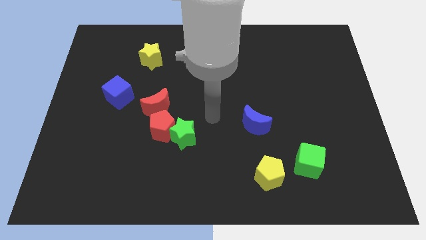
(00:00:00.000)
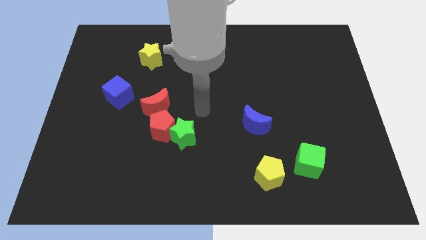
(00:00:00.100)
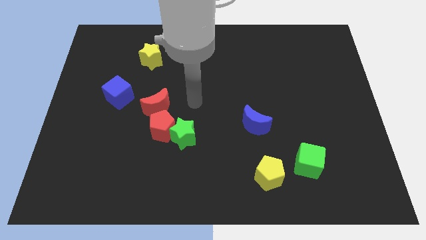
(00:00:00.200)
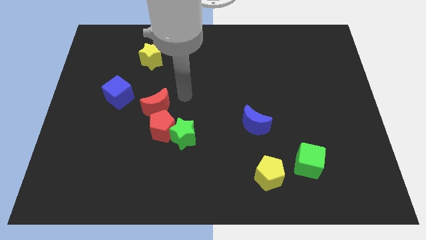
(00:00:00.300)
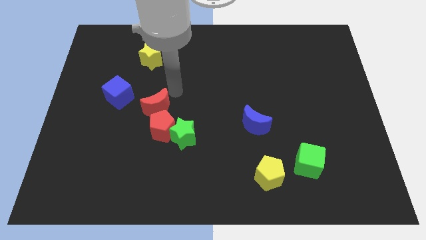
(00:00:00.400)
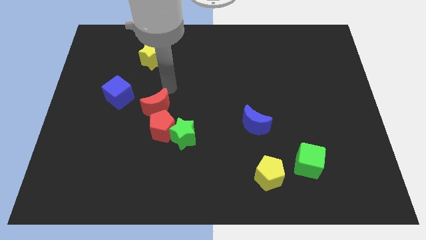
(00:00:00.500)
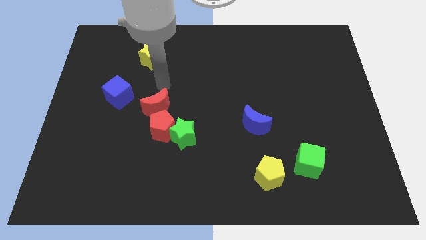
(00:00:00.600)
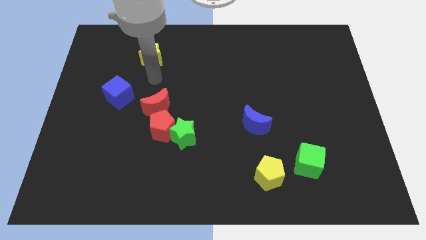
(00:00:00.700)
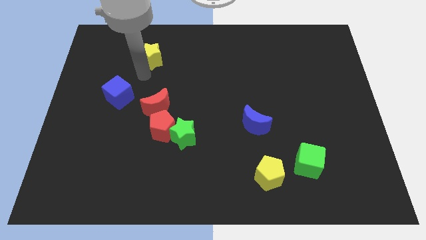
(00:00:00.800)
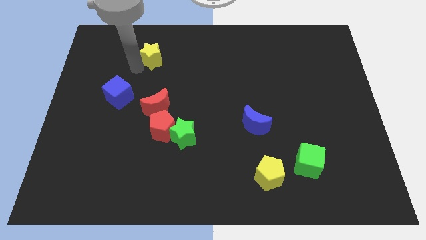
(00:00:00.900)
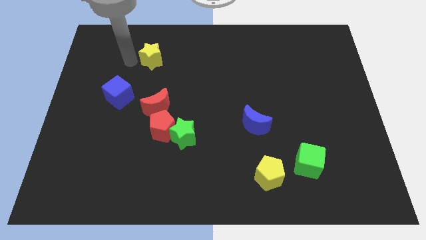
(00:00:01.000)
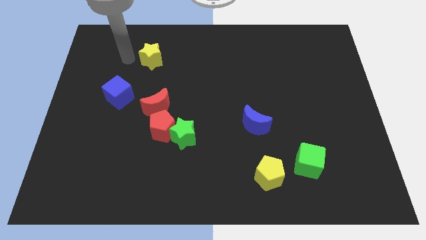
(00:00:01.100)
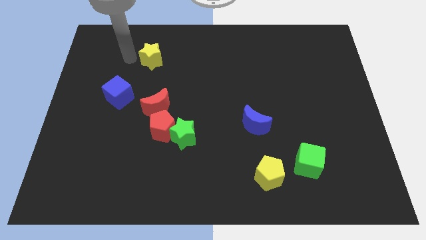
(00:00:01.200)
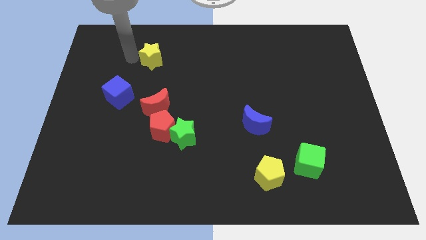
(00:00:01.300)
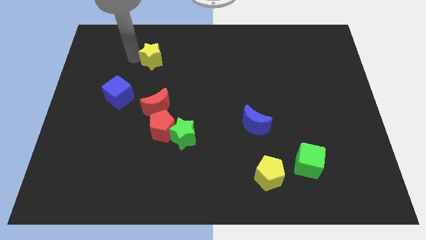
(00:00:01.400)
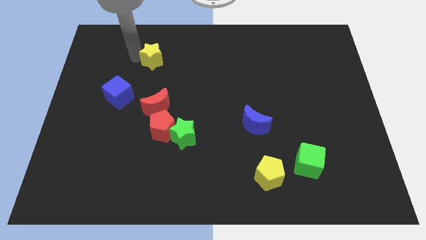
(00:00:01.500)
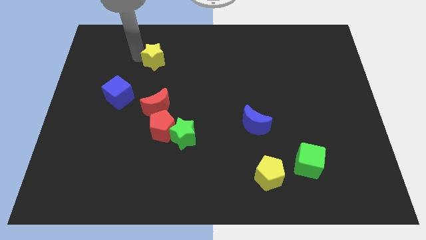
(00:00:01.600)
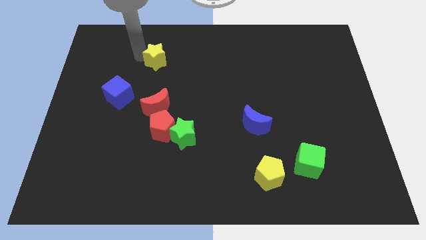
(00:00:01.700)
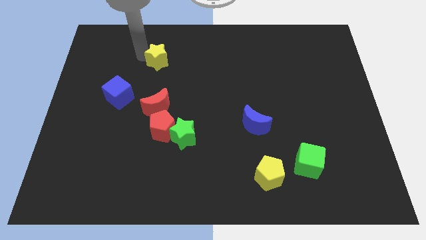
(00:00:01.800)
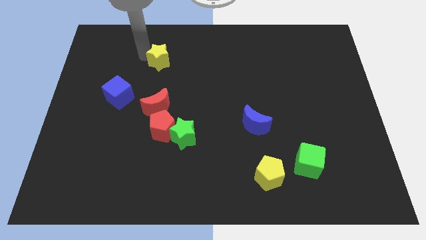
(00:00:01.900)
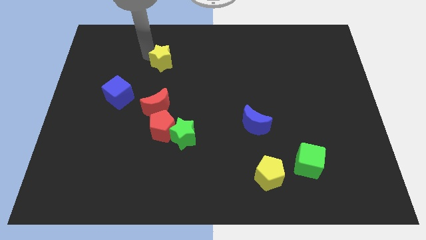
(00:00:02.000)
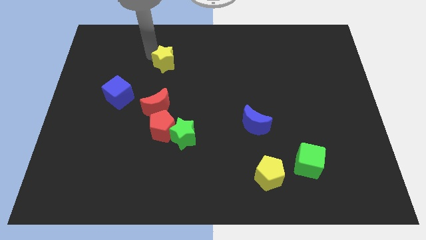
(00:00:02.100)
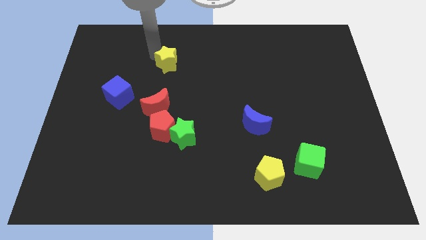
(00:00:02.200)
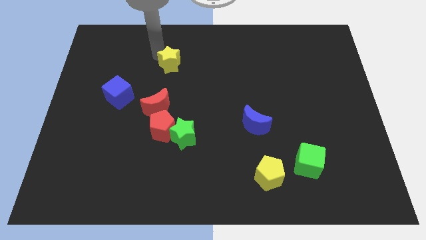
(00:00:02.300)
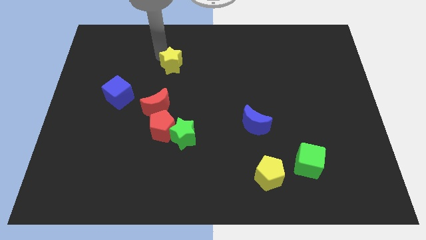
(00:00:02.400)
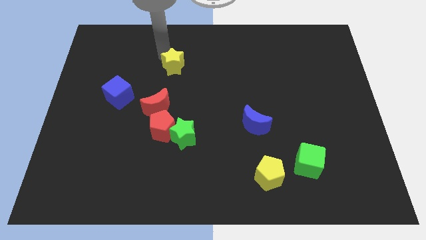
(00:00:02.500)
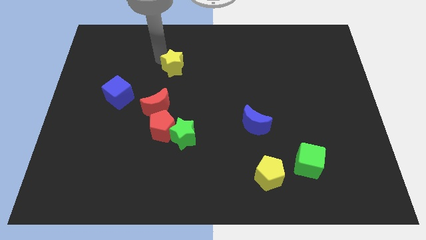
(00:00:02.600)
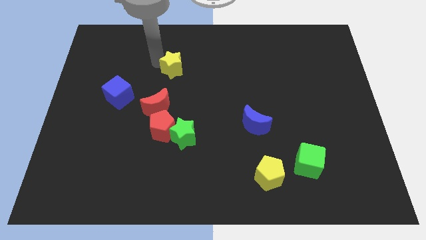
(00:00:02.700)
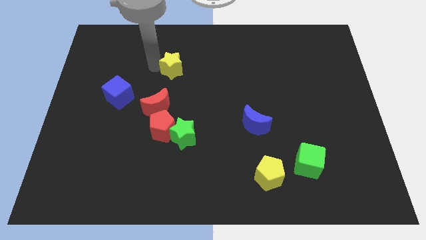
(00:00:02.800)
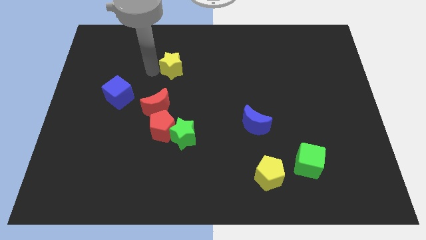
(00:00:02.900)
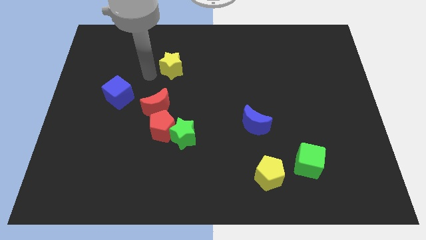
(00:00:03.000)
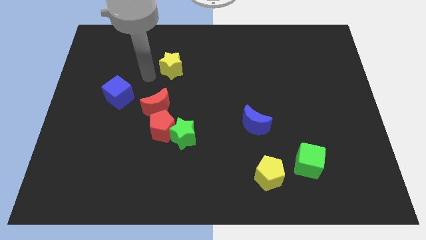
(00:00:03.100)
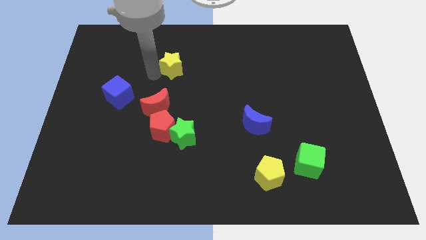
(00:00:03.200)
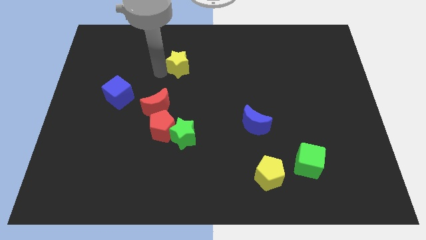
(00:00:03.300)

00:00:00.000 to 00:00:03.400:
slightly move the yellow star to the right

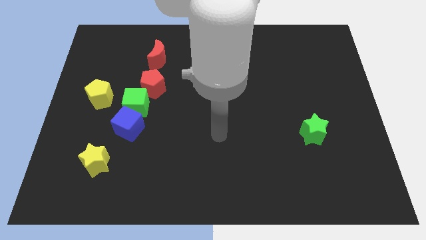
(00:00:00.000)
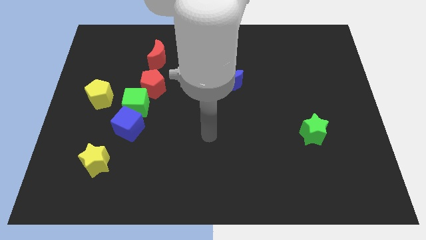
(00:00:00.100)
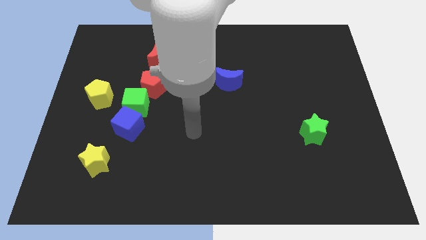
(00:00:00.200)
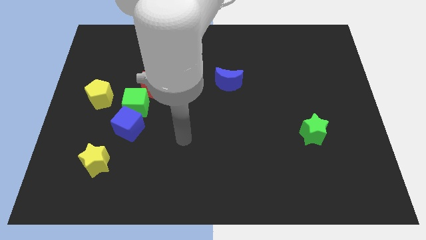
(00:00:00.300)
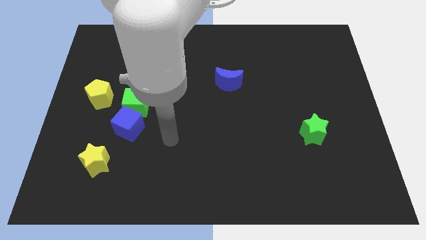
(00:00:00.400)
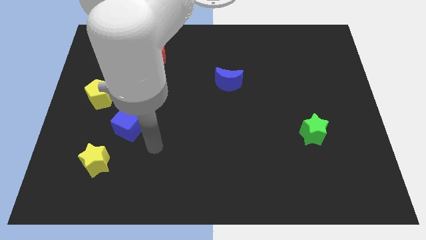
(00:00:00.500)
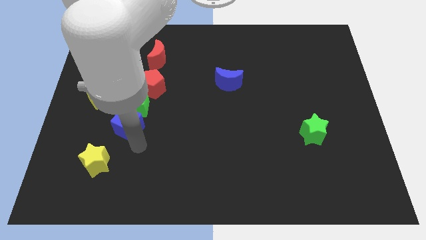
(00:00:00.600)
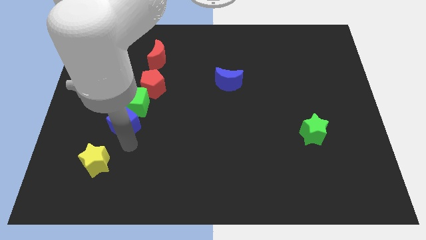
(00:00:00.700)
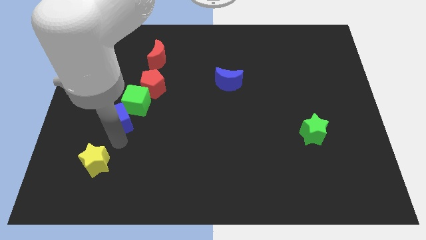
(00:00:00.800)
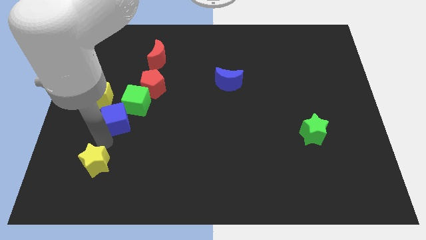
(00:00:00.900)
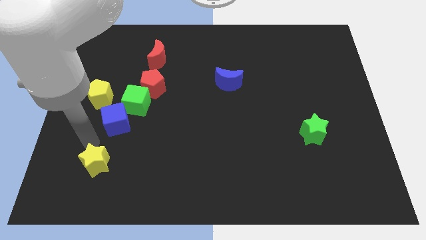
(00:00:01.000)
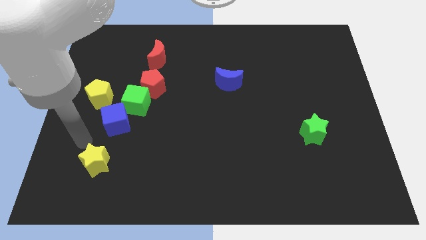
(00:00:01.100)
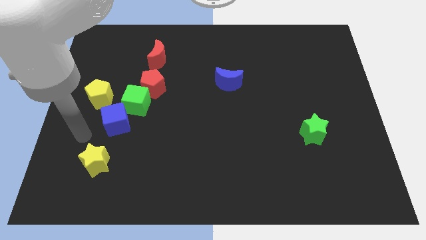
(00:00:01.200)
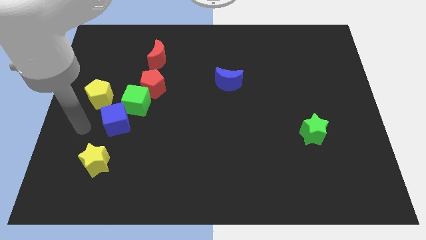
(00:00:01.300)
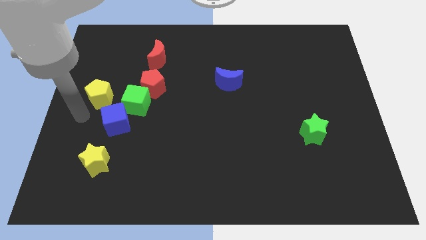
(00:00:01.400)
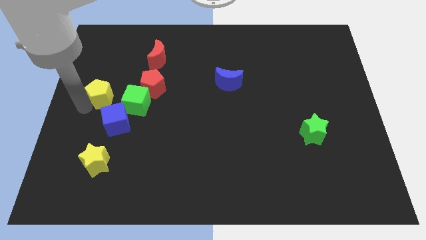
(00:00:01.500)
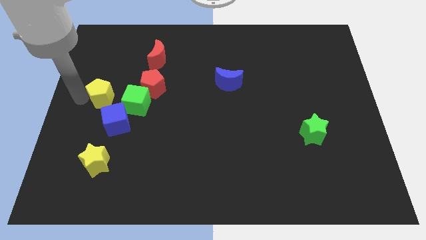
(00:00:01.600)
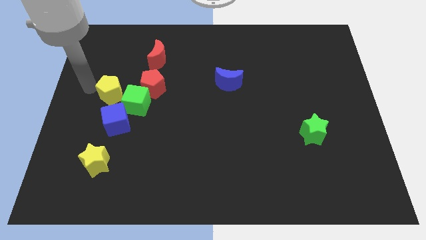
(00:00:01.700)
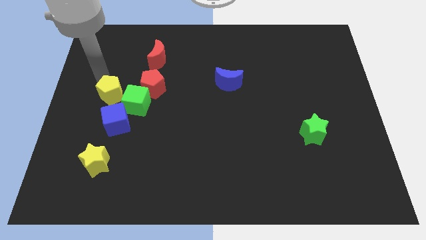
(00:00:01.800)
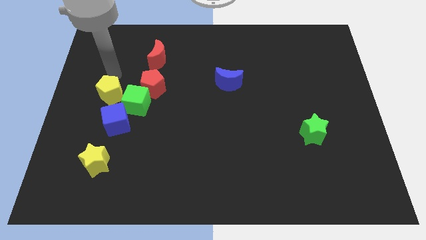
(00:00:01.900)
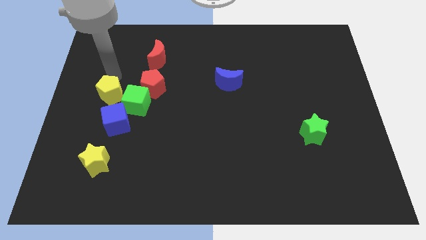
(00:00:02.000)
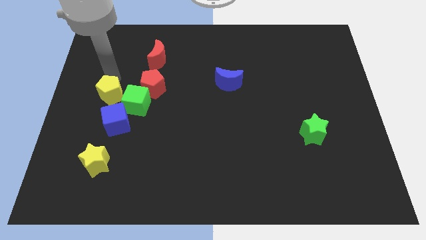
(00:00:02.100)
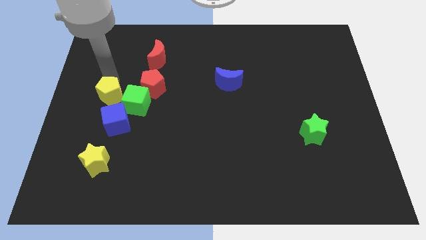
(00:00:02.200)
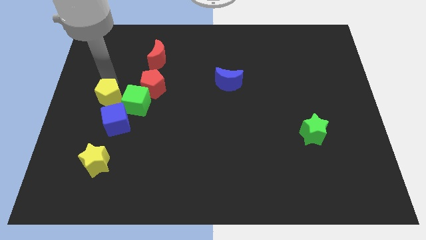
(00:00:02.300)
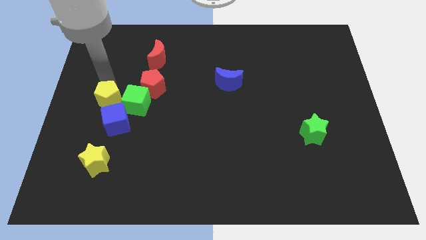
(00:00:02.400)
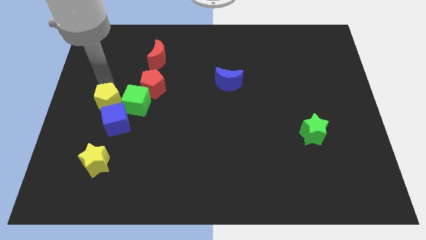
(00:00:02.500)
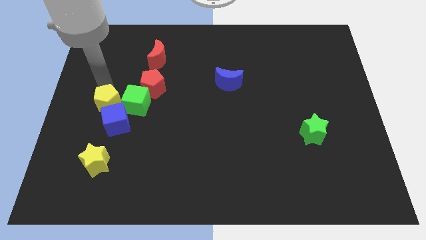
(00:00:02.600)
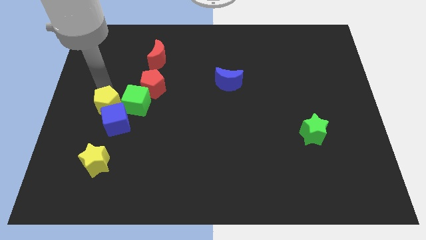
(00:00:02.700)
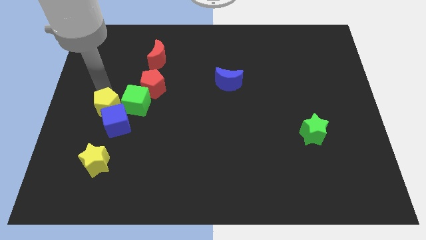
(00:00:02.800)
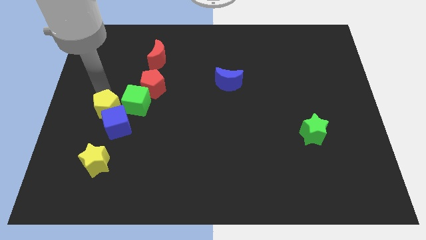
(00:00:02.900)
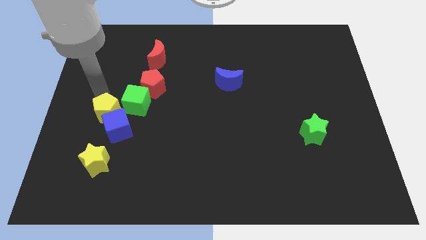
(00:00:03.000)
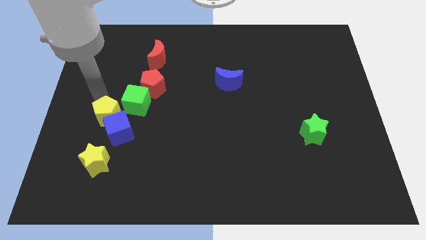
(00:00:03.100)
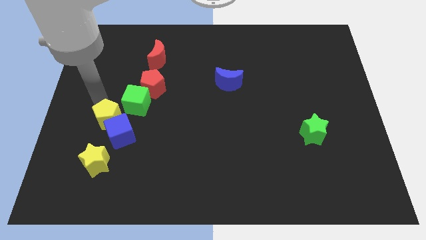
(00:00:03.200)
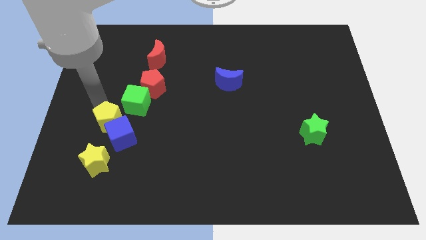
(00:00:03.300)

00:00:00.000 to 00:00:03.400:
slide the yellow pentagon down and then to the right a little bit

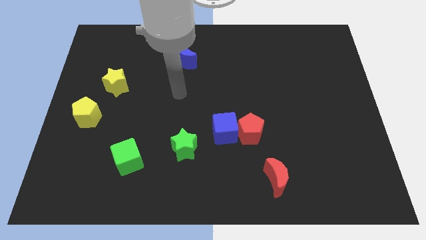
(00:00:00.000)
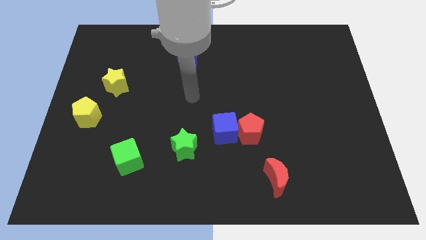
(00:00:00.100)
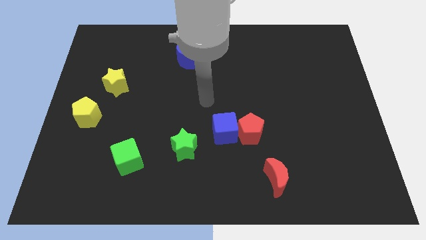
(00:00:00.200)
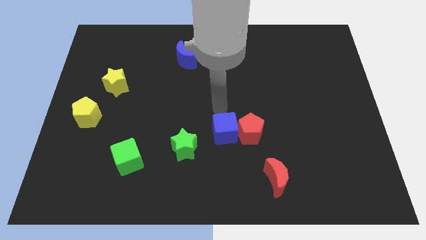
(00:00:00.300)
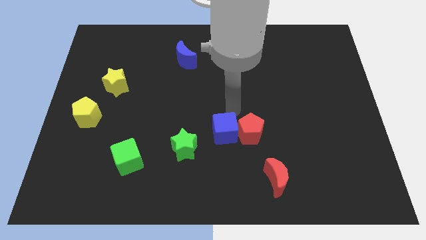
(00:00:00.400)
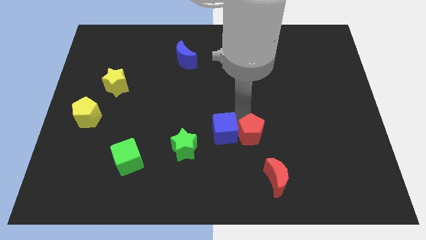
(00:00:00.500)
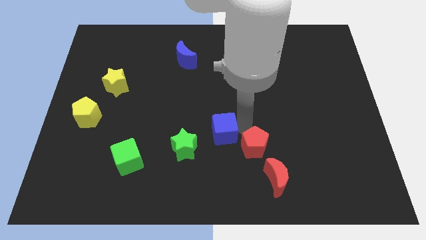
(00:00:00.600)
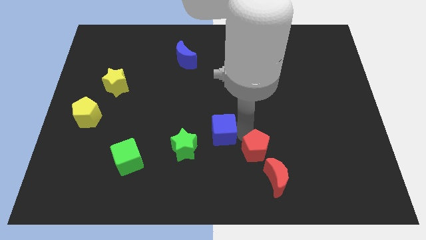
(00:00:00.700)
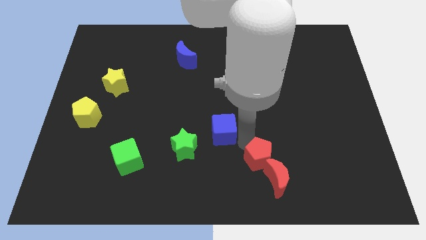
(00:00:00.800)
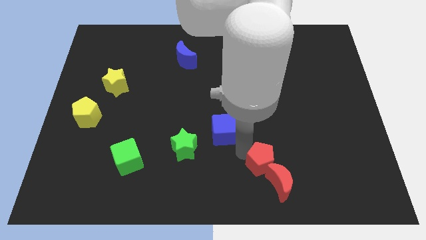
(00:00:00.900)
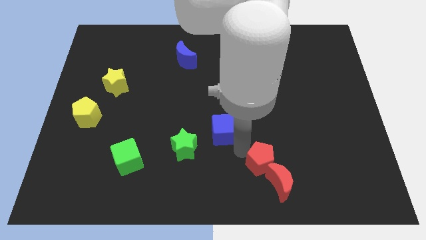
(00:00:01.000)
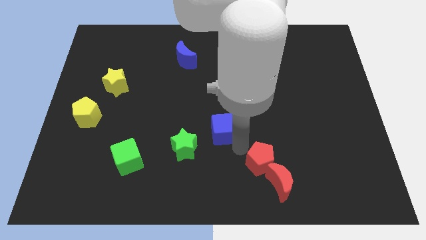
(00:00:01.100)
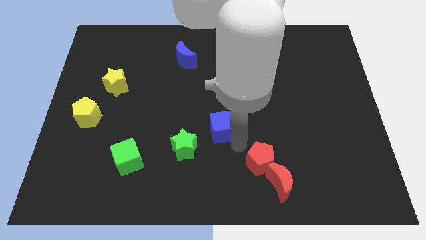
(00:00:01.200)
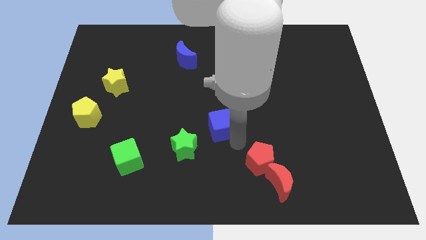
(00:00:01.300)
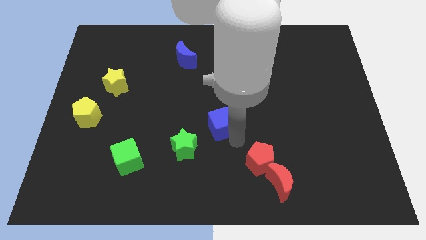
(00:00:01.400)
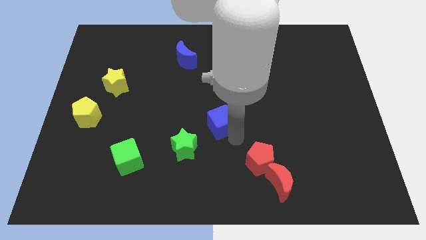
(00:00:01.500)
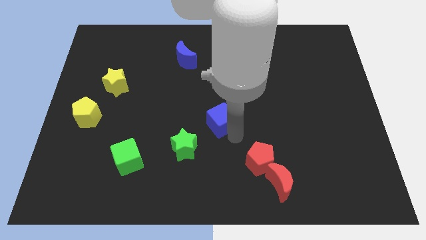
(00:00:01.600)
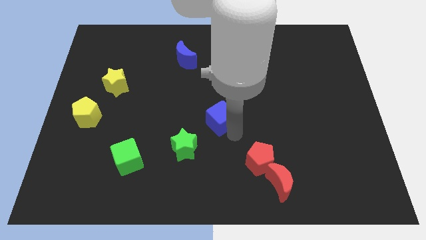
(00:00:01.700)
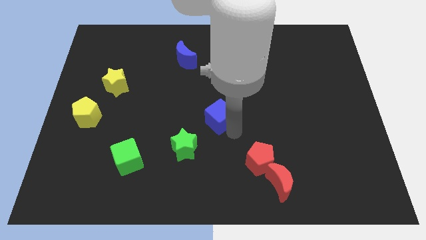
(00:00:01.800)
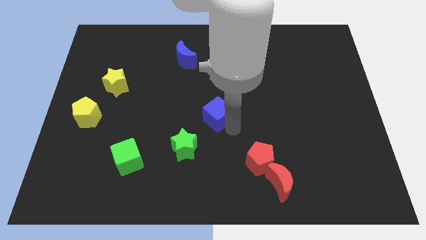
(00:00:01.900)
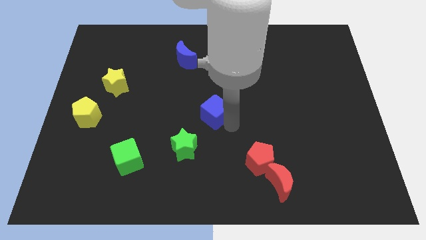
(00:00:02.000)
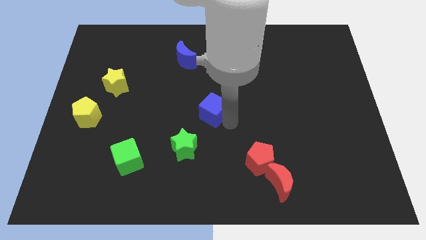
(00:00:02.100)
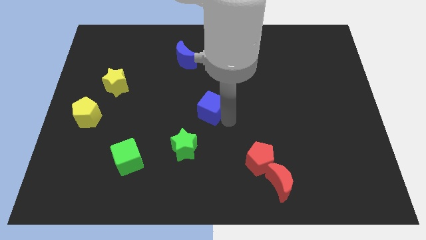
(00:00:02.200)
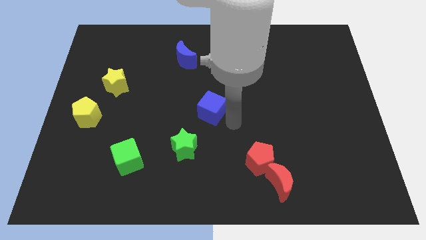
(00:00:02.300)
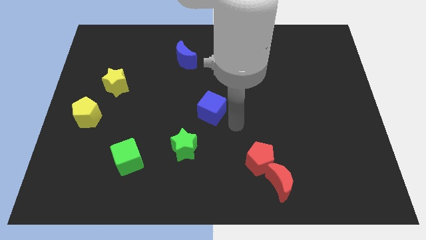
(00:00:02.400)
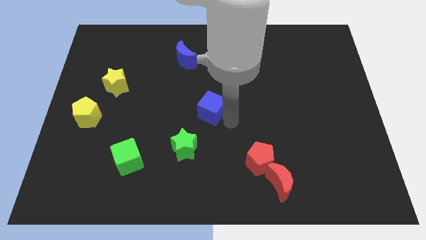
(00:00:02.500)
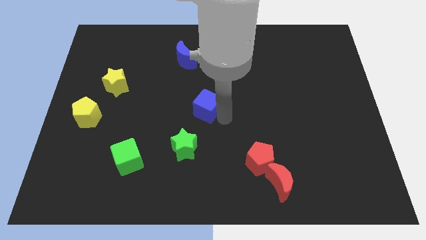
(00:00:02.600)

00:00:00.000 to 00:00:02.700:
slide the blue cube diagonally upwards and left a little
